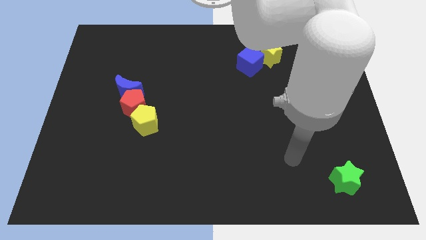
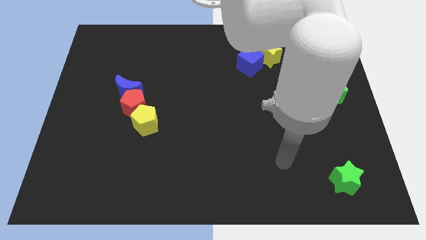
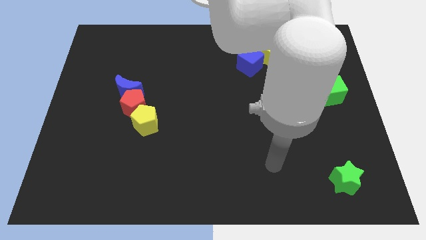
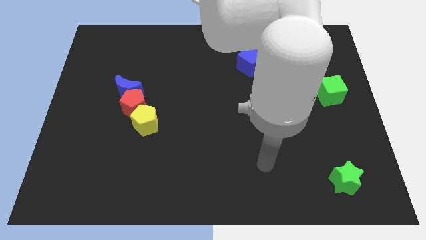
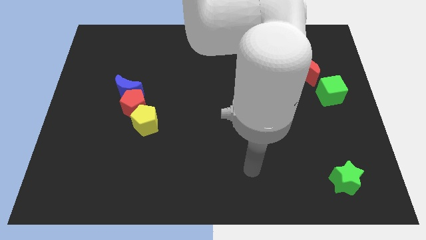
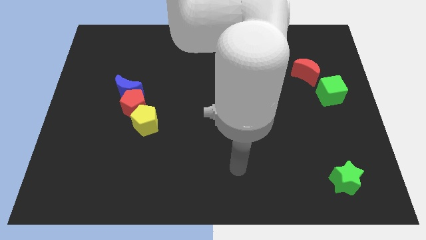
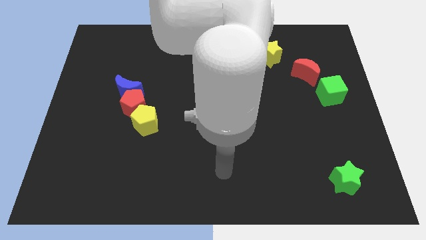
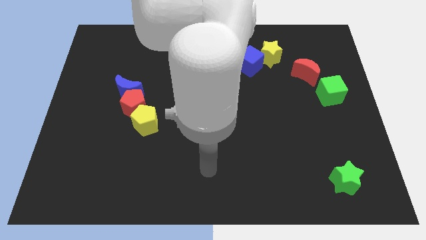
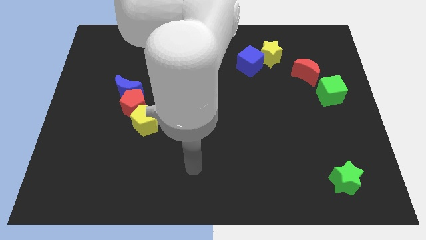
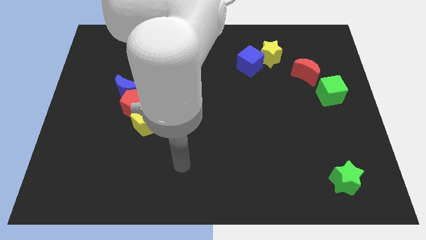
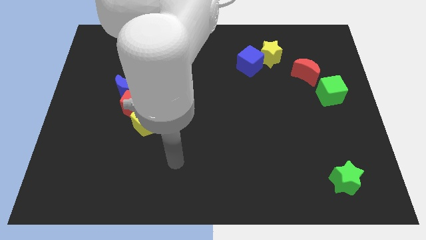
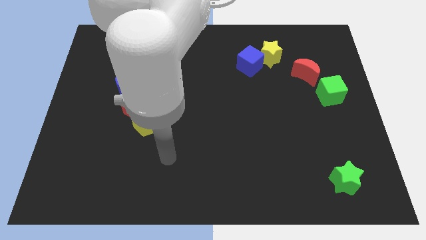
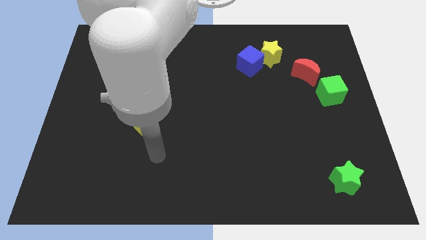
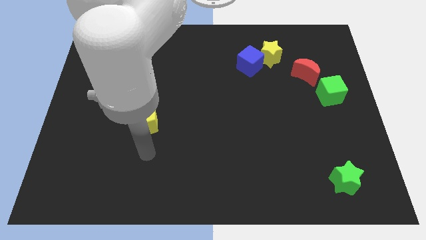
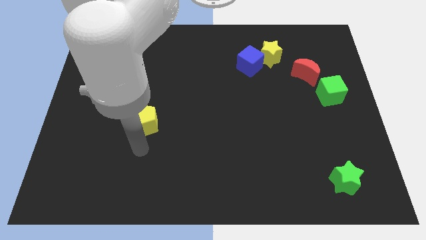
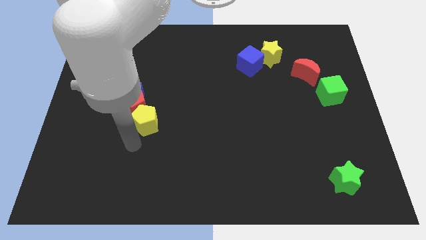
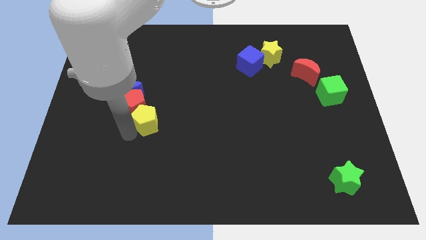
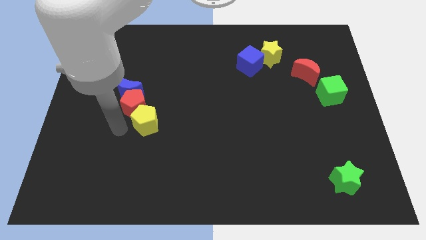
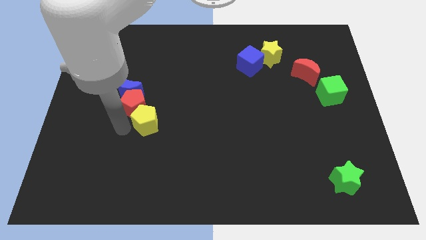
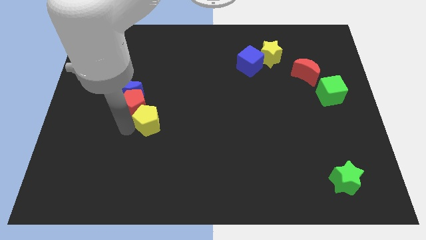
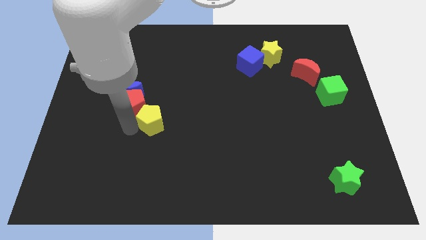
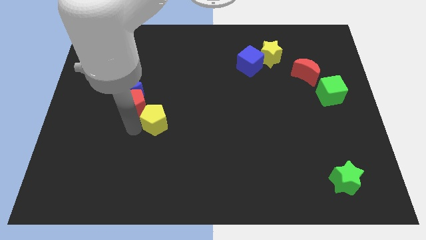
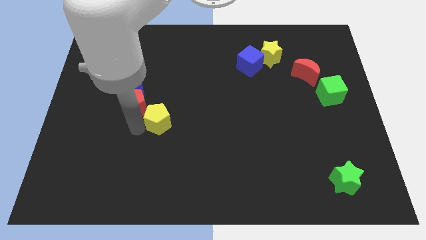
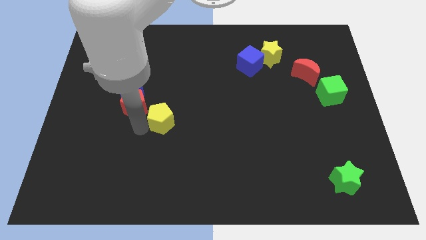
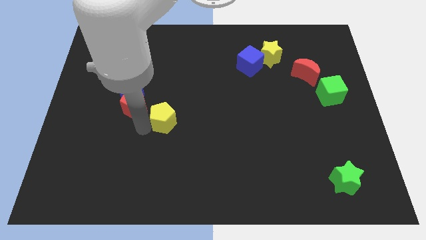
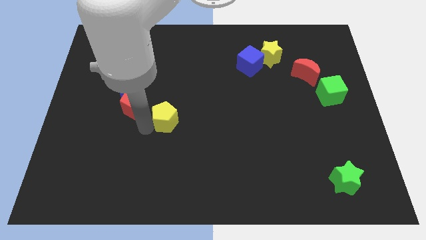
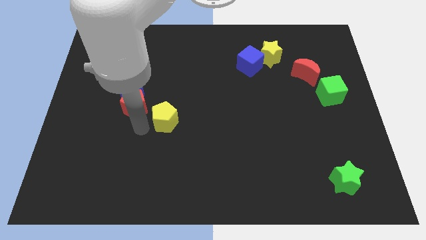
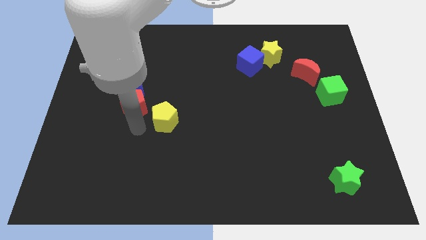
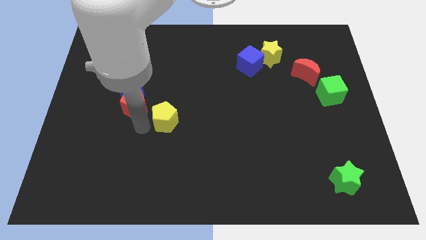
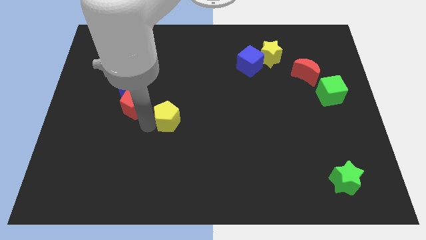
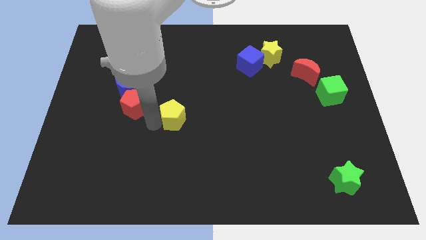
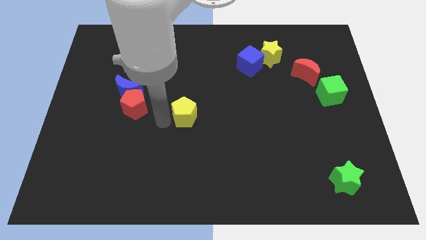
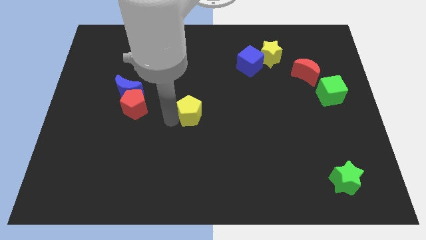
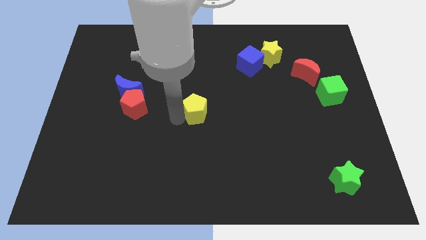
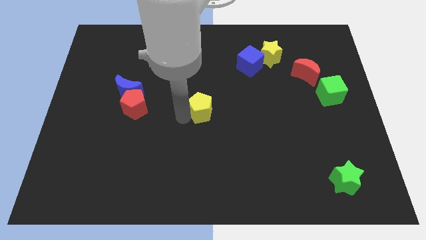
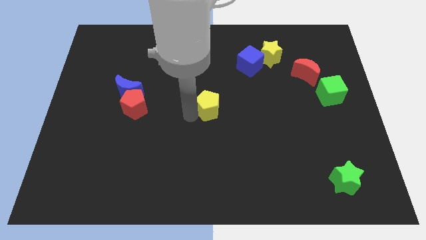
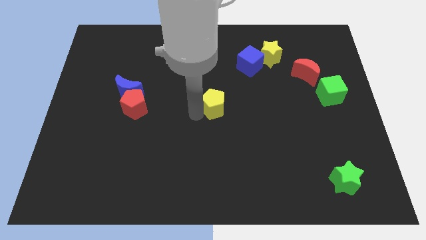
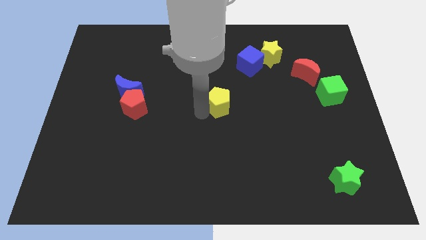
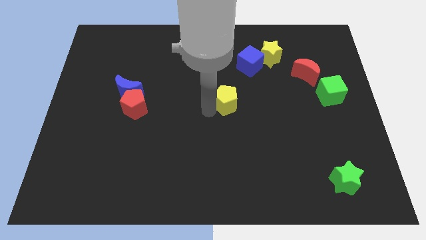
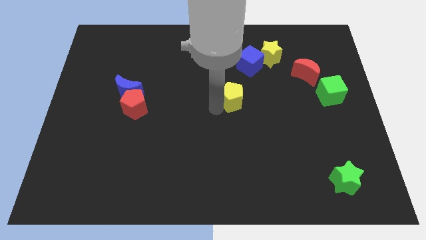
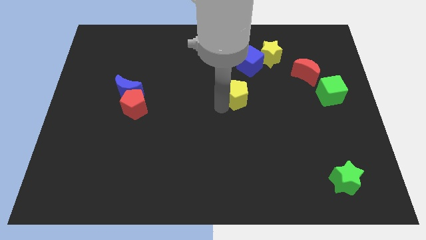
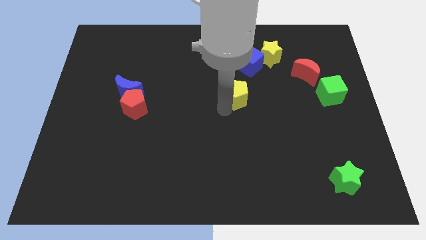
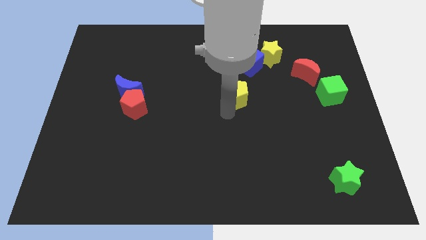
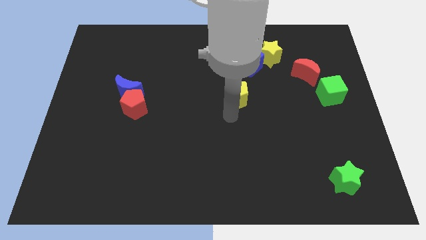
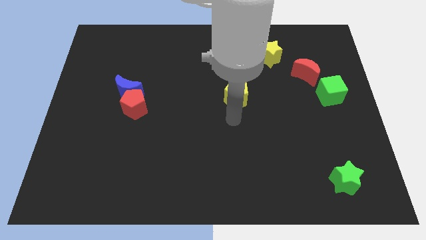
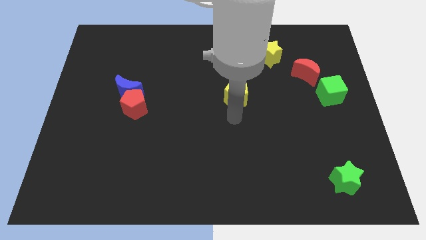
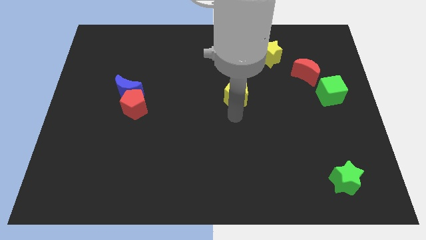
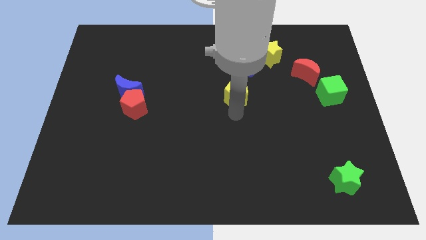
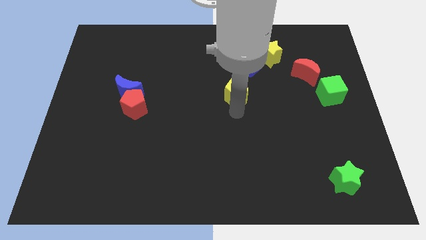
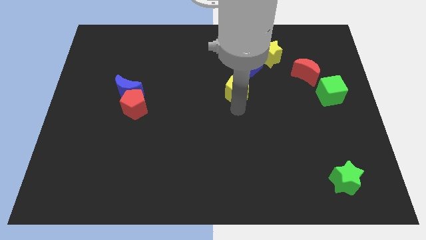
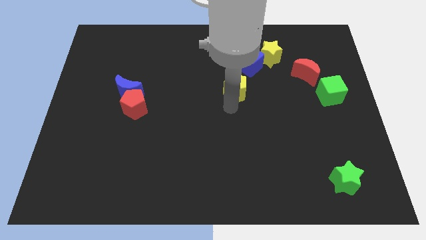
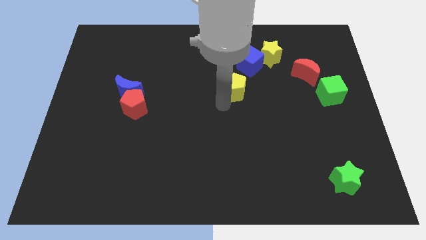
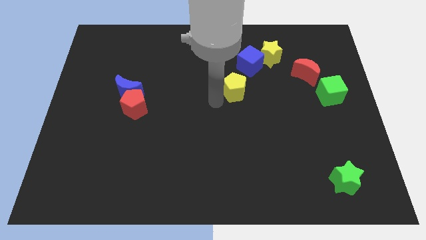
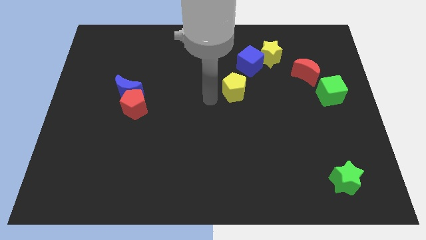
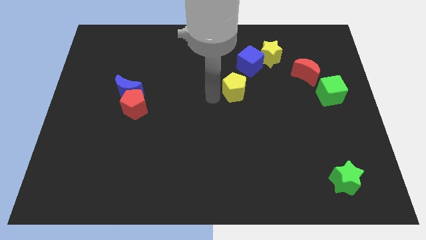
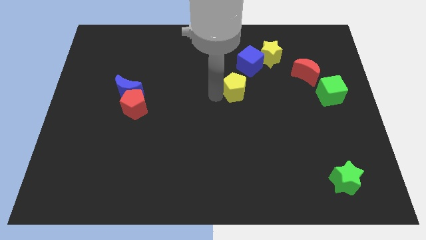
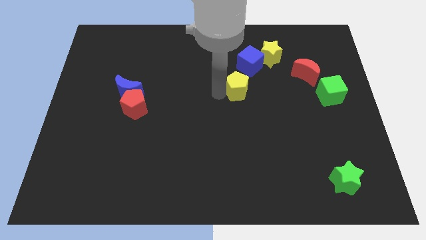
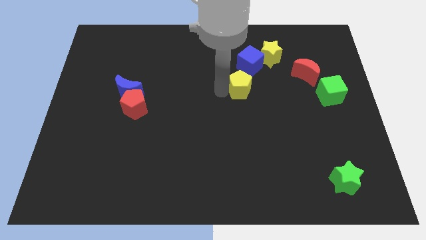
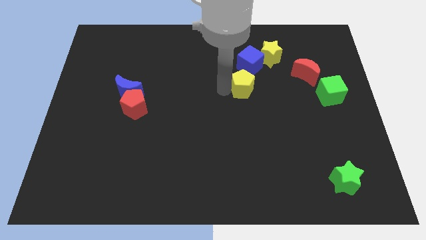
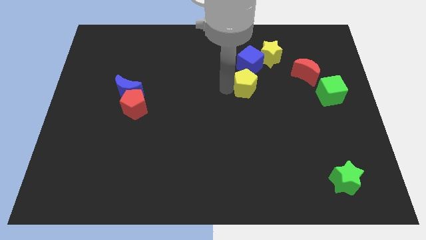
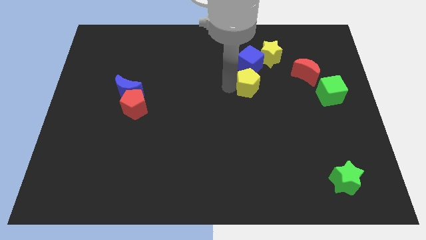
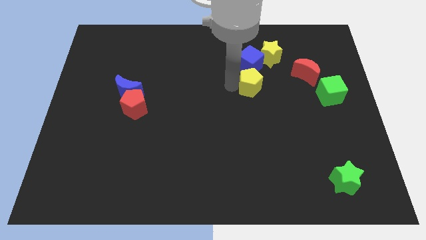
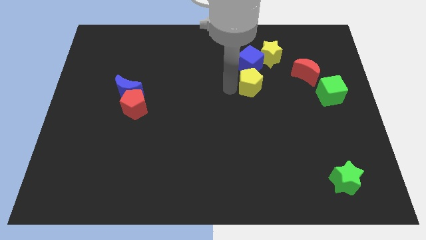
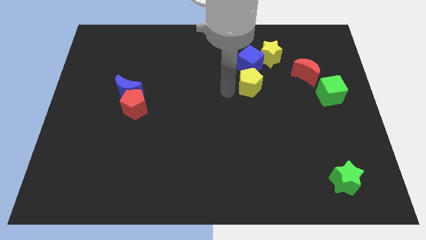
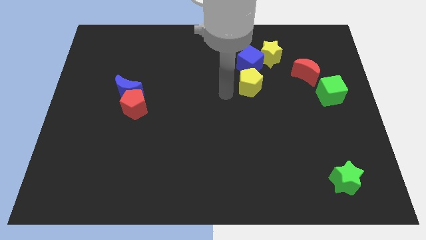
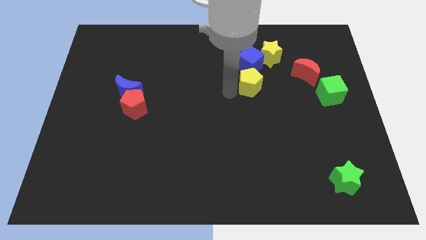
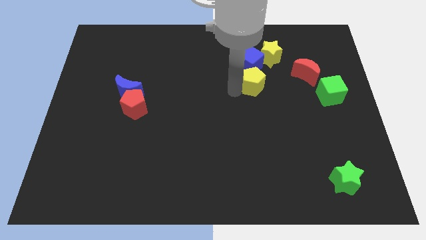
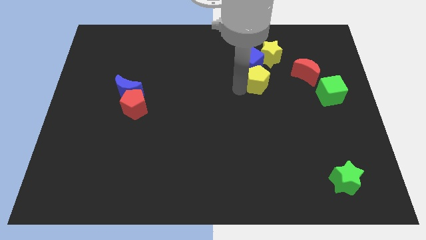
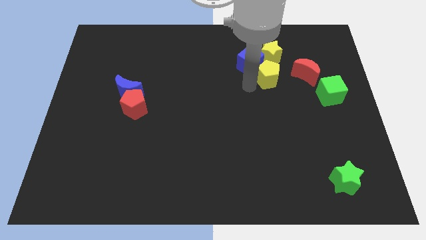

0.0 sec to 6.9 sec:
put the yellow pentagon to the right side of the blue cube

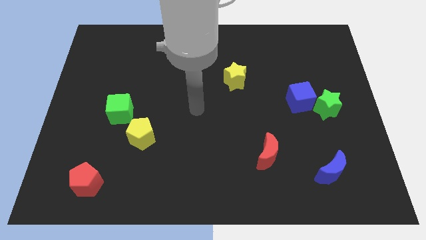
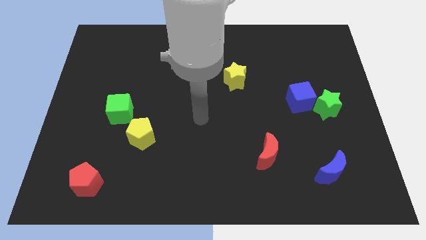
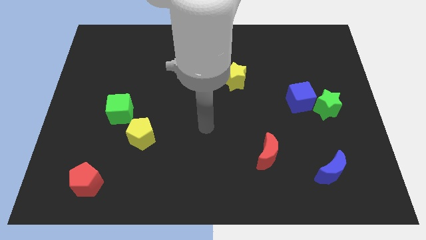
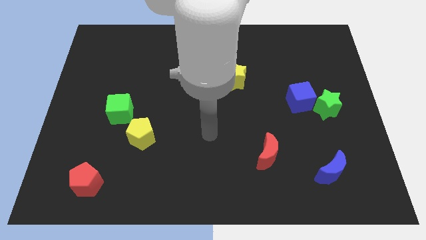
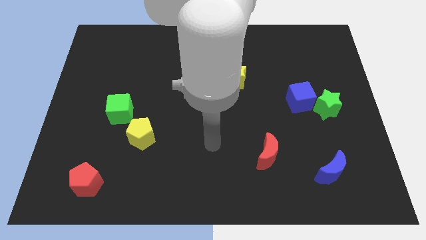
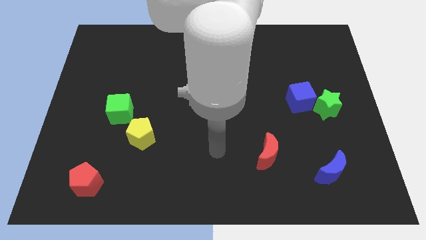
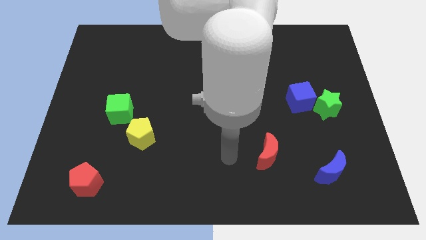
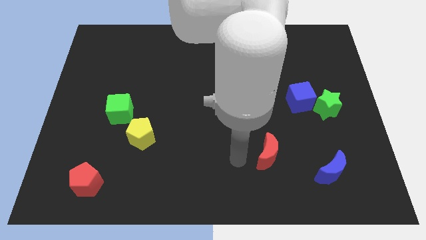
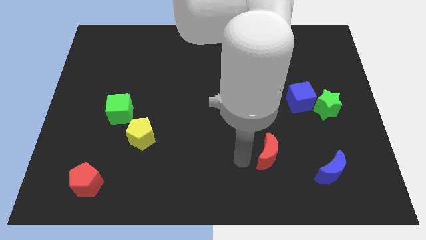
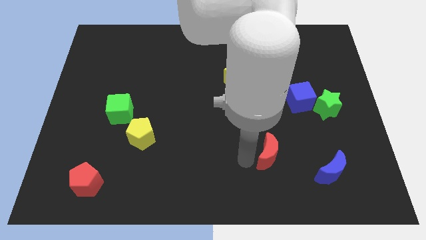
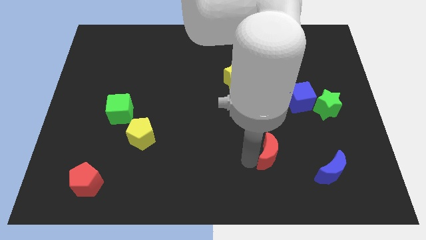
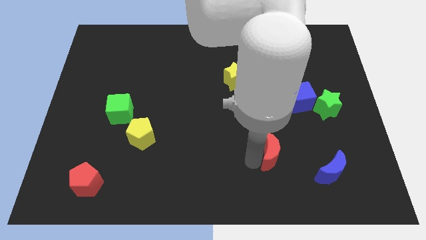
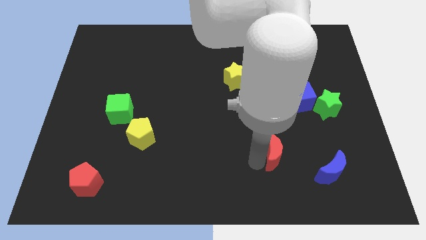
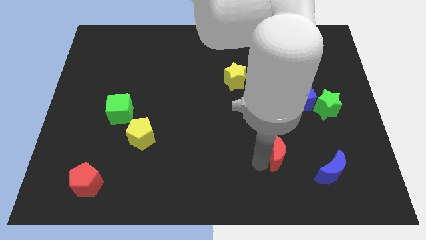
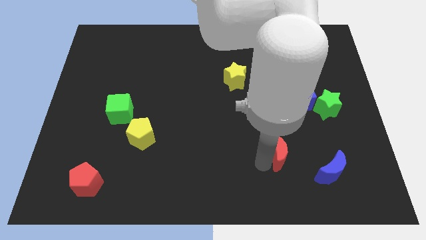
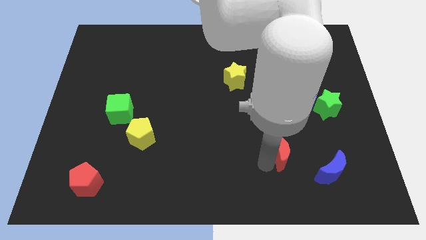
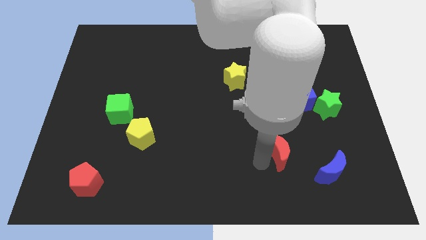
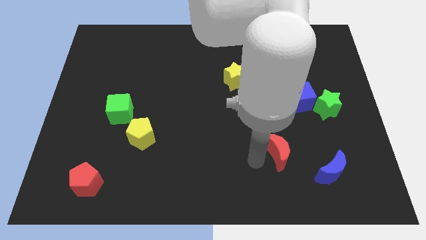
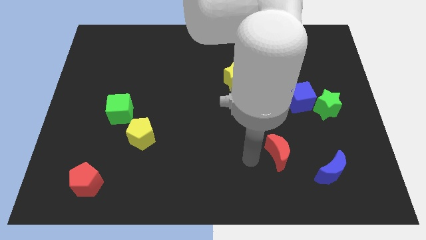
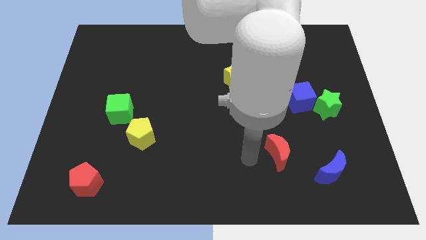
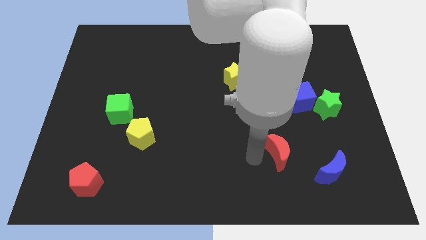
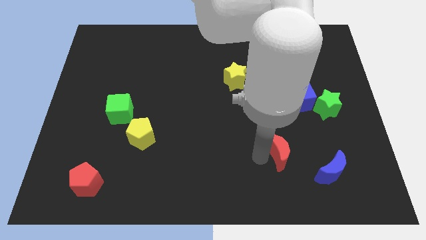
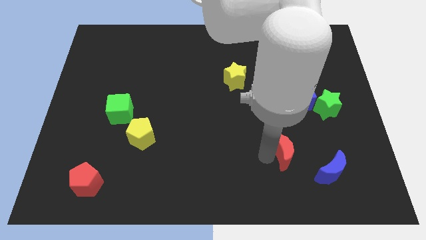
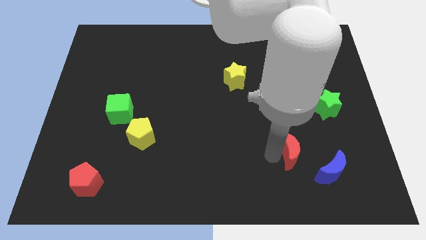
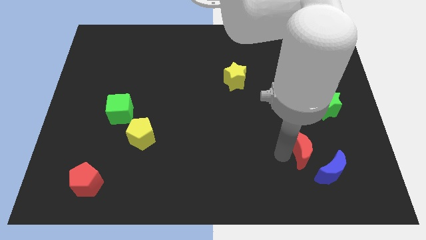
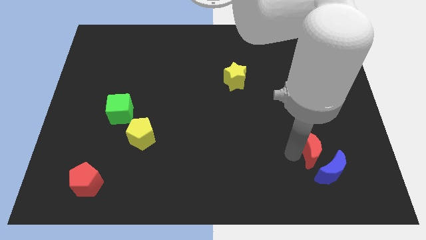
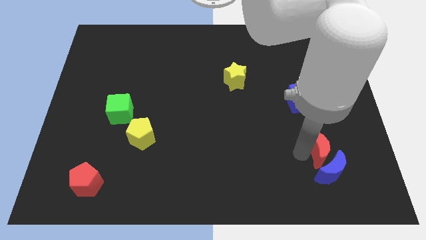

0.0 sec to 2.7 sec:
slide the red moon to the bottom of the green star
